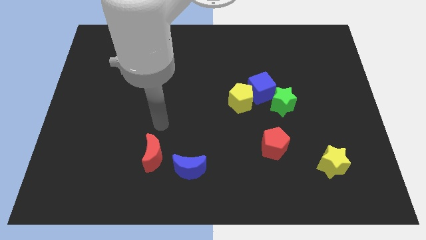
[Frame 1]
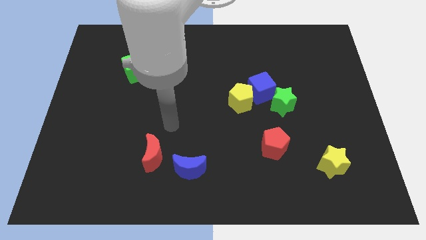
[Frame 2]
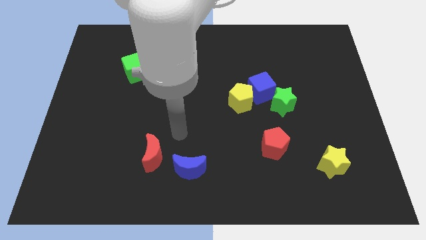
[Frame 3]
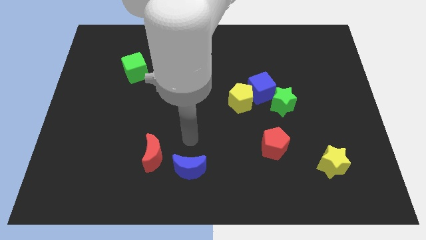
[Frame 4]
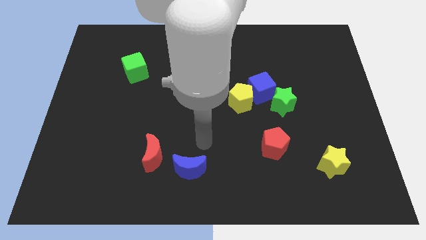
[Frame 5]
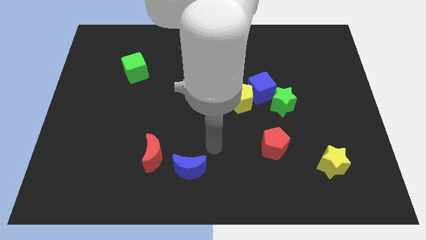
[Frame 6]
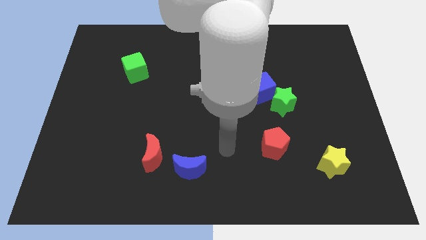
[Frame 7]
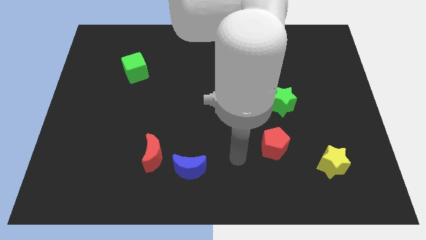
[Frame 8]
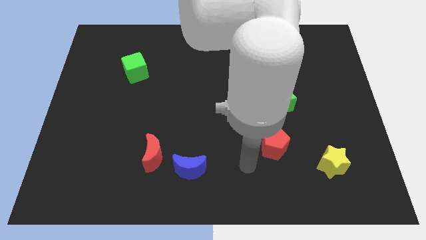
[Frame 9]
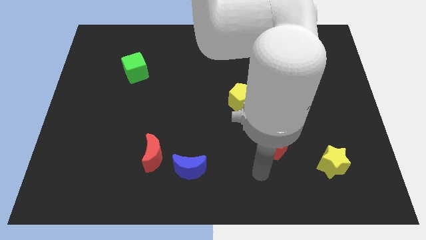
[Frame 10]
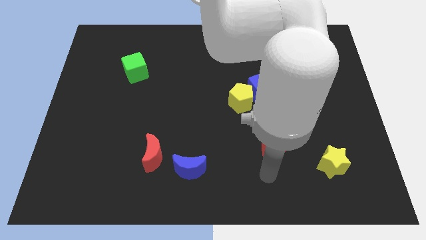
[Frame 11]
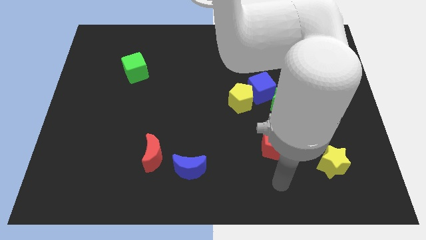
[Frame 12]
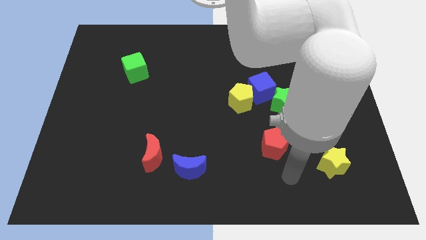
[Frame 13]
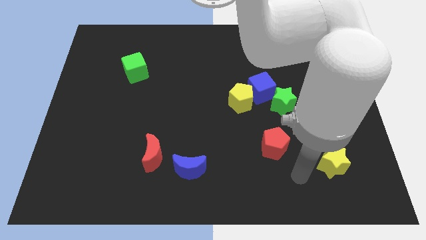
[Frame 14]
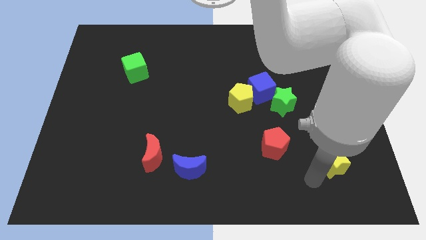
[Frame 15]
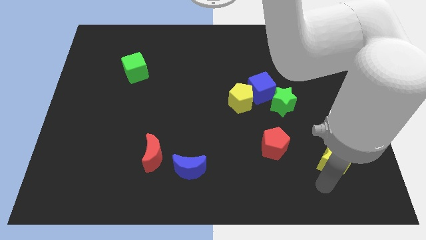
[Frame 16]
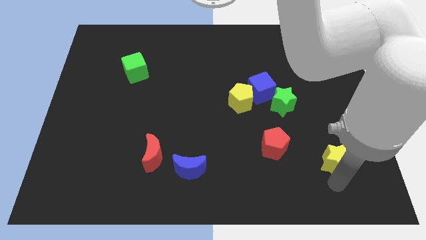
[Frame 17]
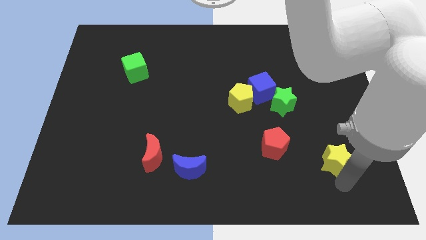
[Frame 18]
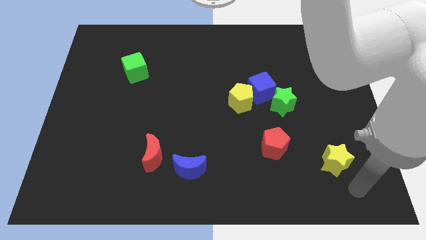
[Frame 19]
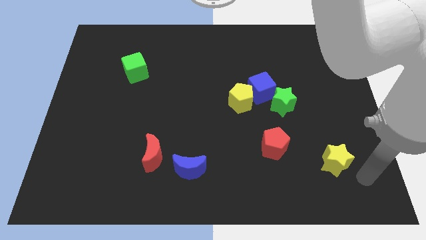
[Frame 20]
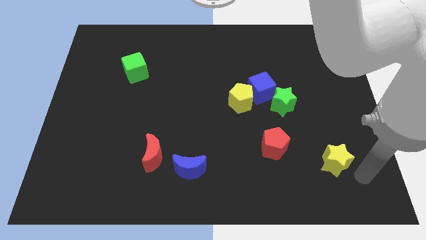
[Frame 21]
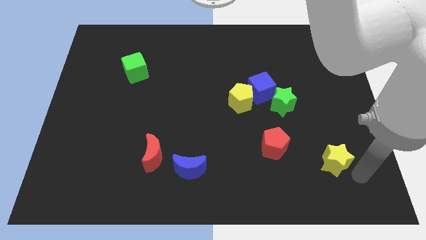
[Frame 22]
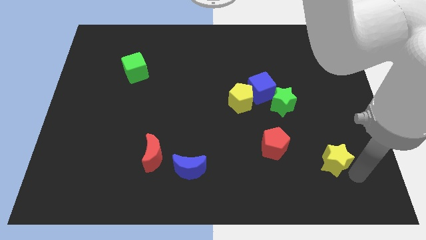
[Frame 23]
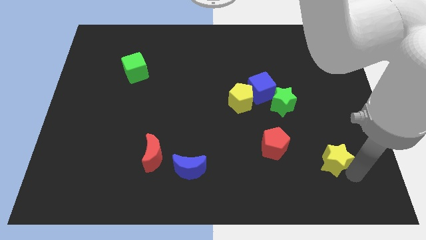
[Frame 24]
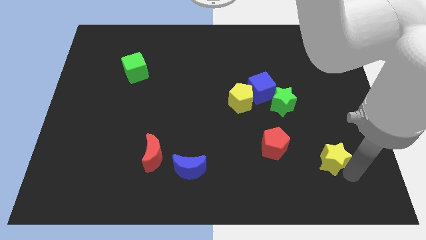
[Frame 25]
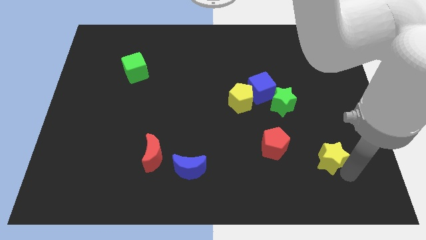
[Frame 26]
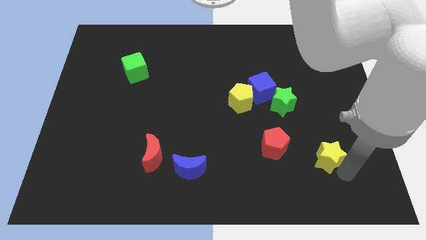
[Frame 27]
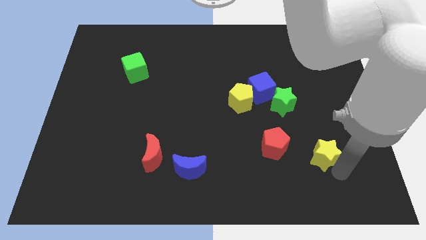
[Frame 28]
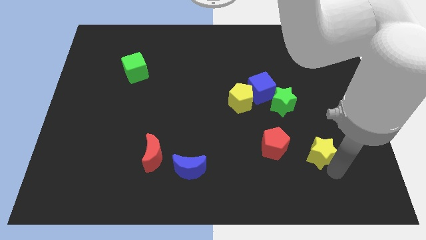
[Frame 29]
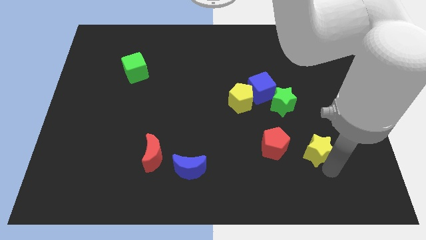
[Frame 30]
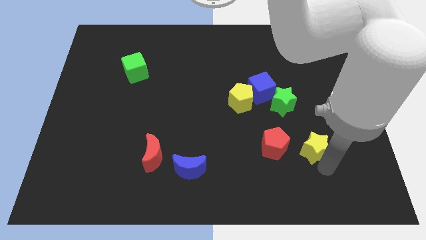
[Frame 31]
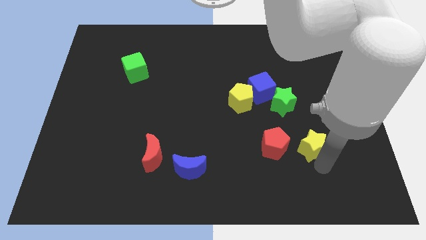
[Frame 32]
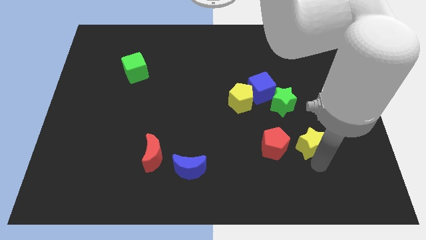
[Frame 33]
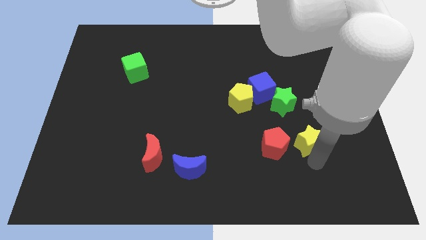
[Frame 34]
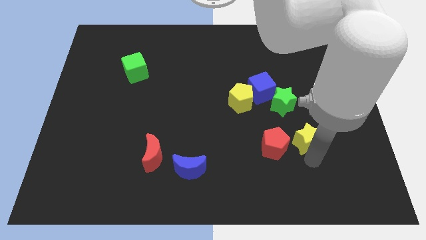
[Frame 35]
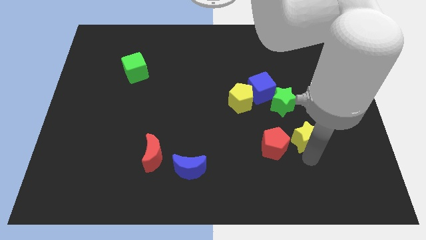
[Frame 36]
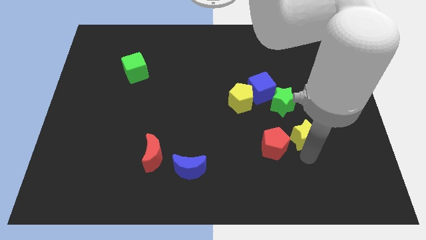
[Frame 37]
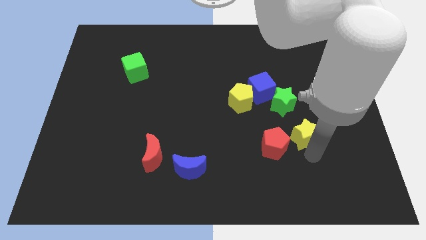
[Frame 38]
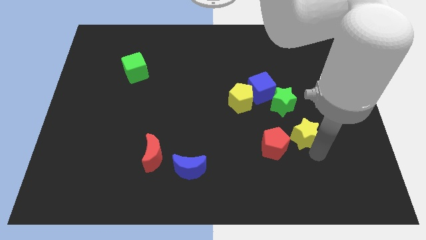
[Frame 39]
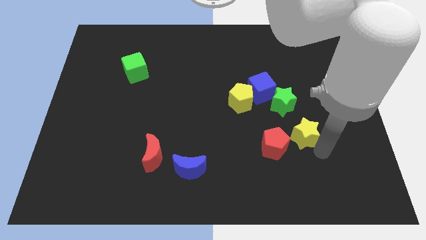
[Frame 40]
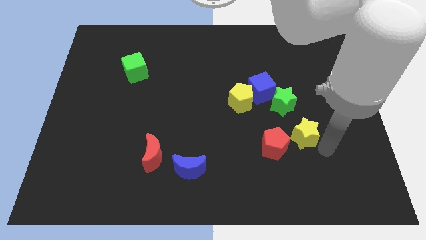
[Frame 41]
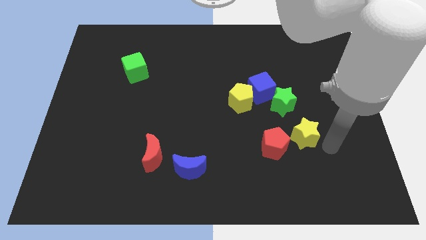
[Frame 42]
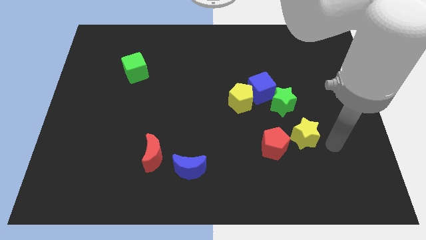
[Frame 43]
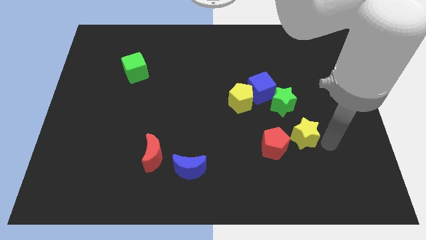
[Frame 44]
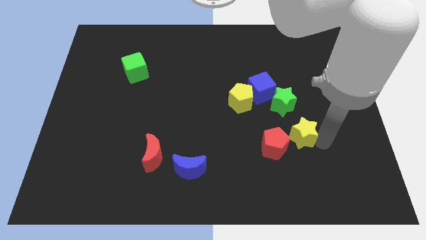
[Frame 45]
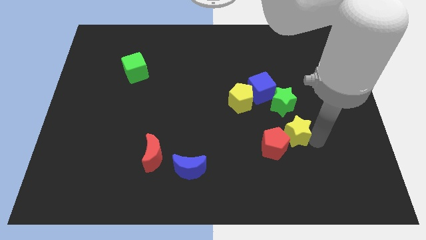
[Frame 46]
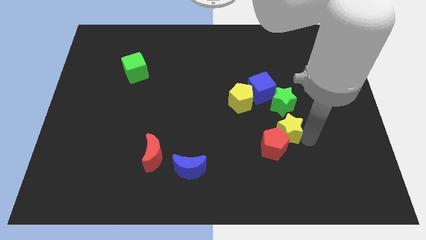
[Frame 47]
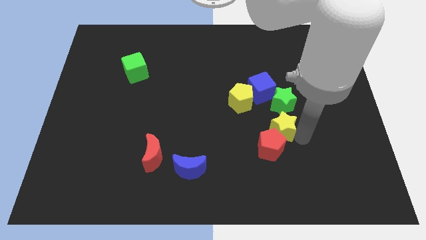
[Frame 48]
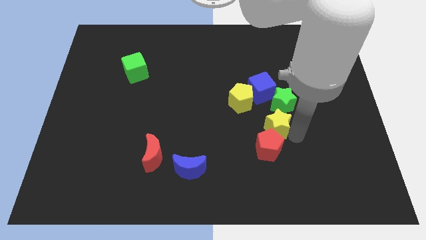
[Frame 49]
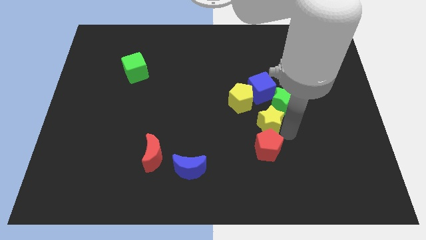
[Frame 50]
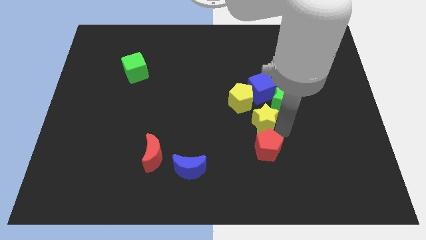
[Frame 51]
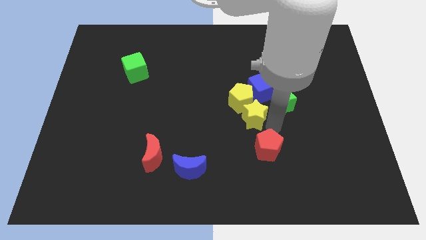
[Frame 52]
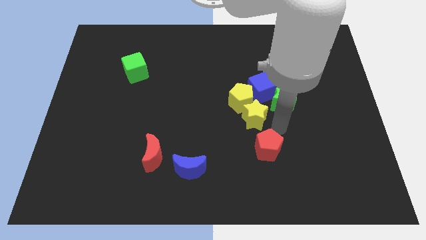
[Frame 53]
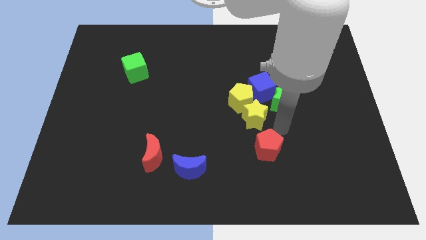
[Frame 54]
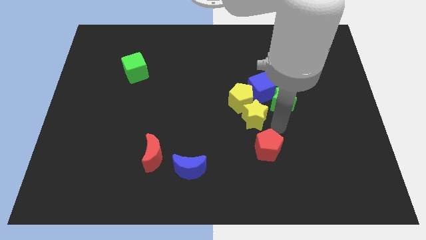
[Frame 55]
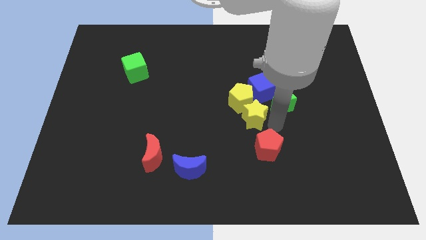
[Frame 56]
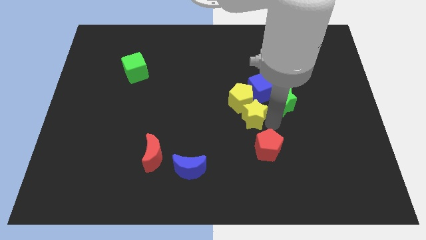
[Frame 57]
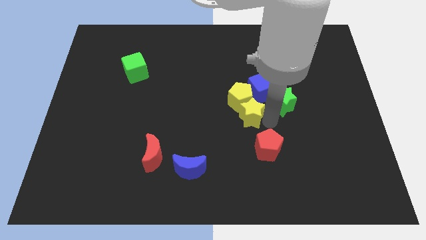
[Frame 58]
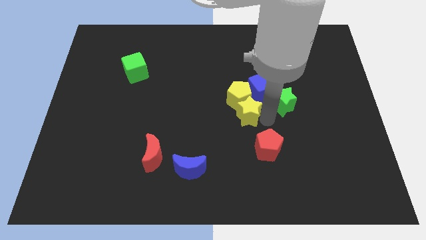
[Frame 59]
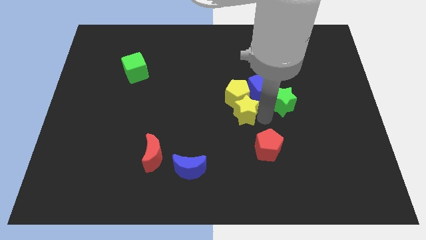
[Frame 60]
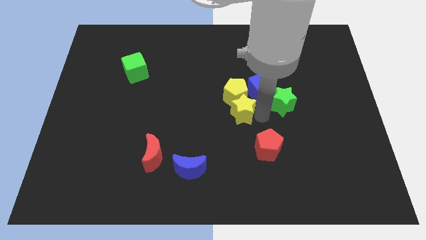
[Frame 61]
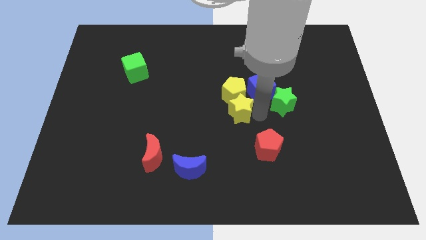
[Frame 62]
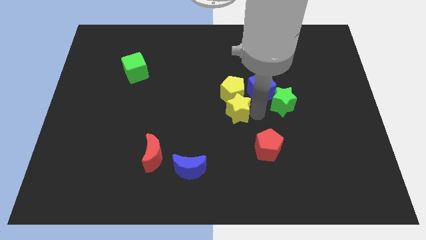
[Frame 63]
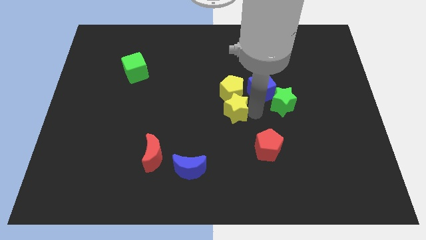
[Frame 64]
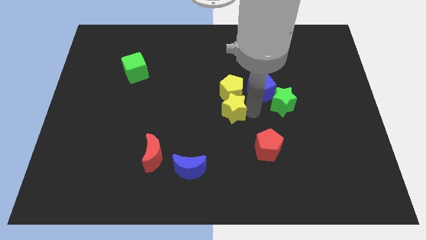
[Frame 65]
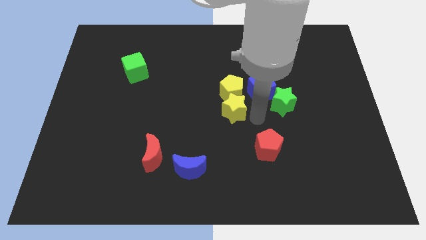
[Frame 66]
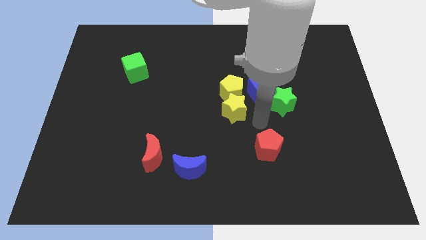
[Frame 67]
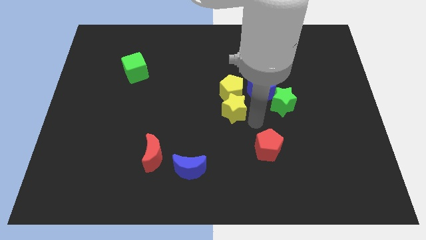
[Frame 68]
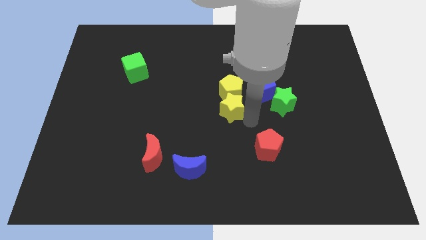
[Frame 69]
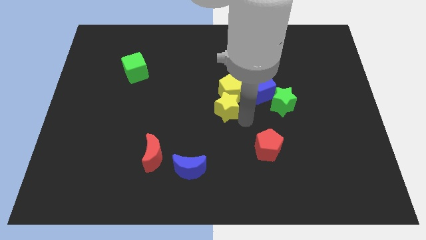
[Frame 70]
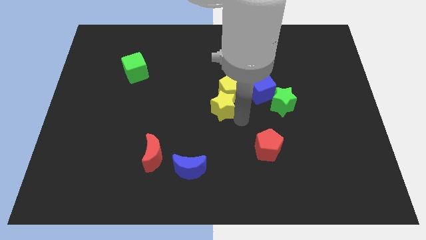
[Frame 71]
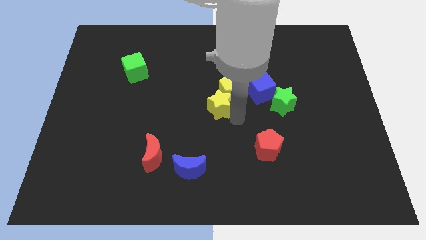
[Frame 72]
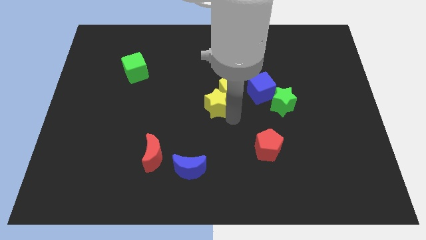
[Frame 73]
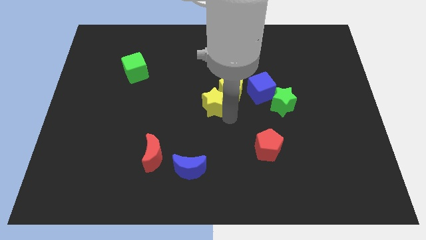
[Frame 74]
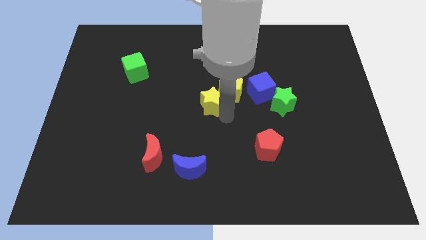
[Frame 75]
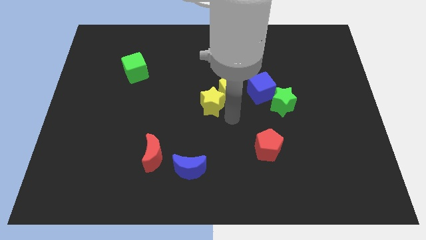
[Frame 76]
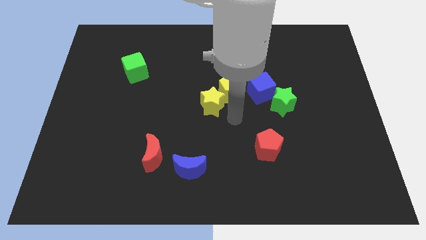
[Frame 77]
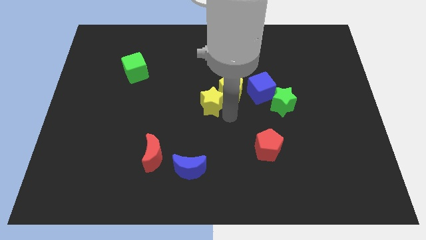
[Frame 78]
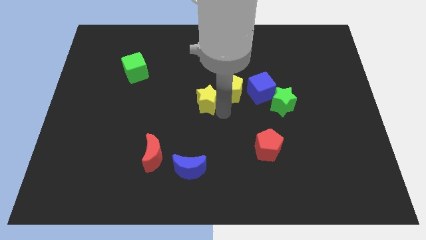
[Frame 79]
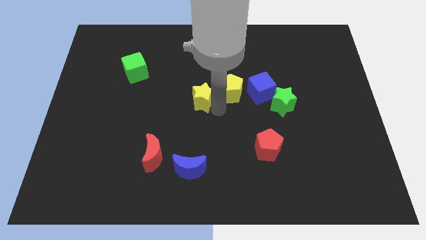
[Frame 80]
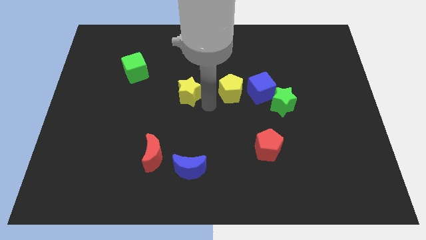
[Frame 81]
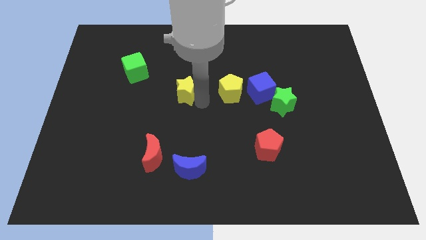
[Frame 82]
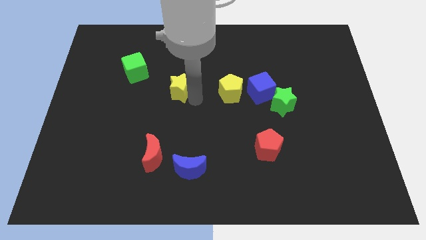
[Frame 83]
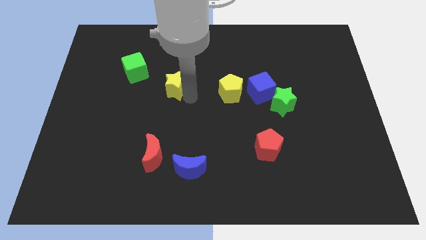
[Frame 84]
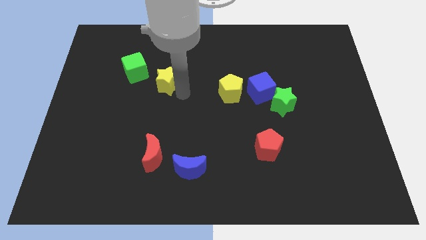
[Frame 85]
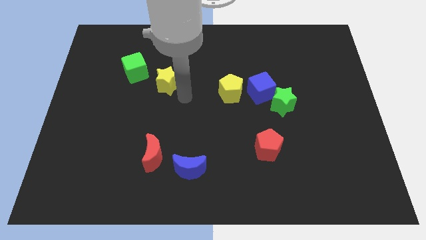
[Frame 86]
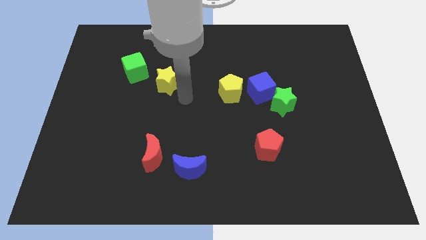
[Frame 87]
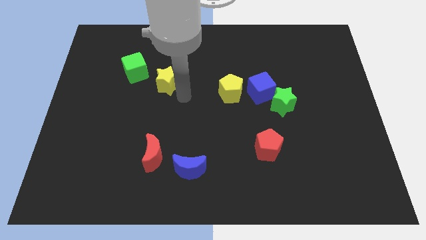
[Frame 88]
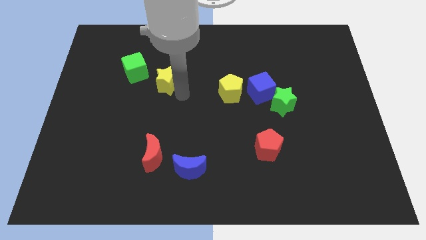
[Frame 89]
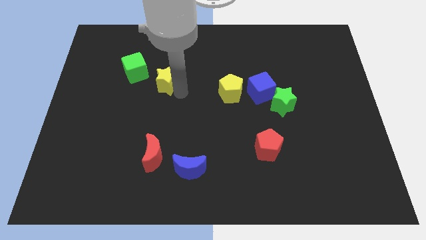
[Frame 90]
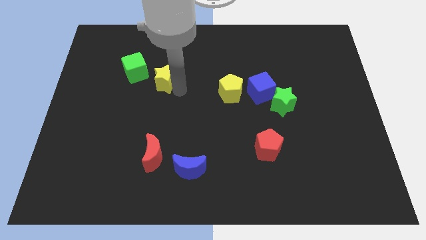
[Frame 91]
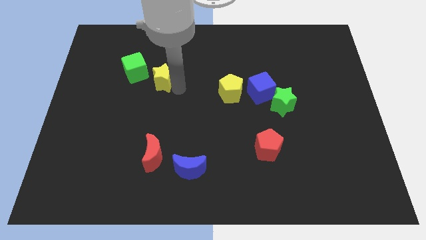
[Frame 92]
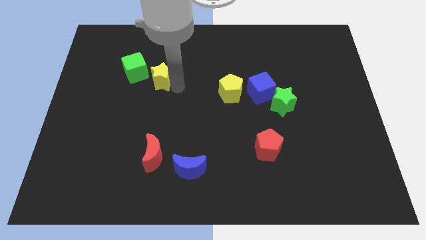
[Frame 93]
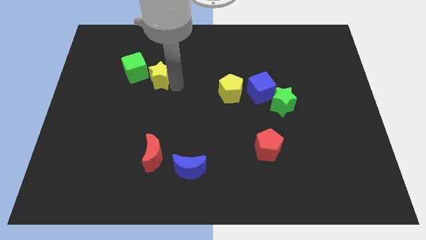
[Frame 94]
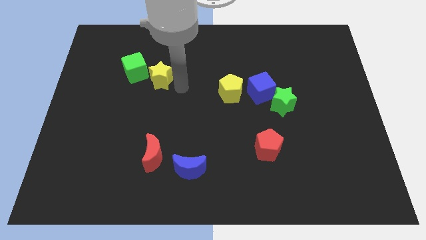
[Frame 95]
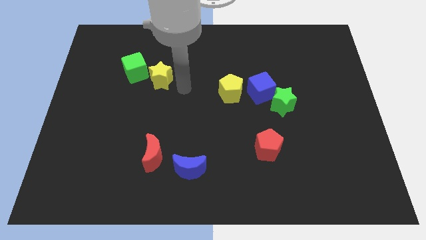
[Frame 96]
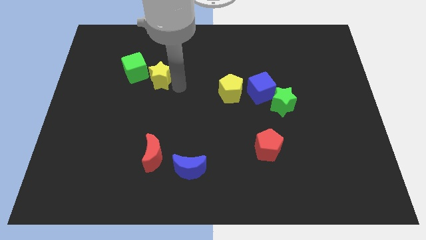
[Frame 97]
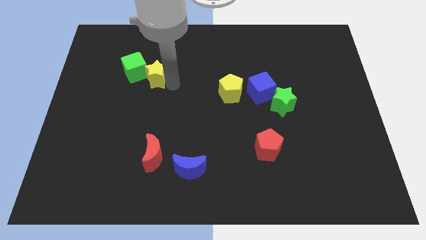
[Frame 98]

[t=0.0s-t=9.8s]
slide the yellow star towards the green cube
